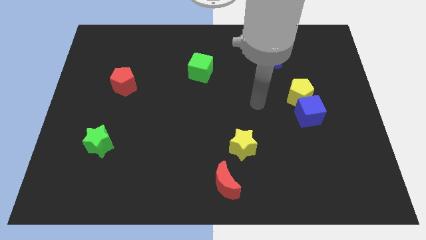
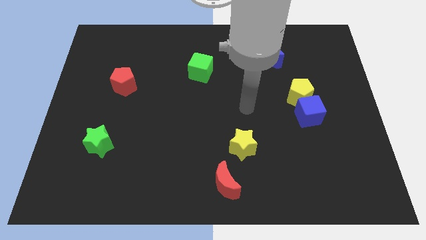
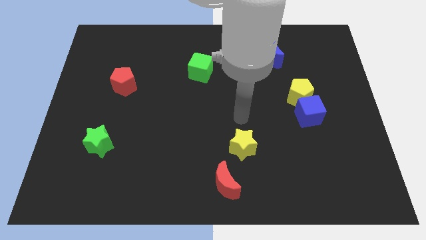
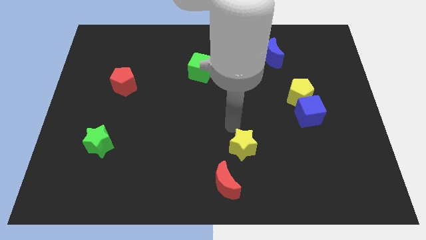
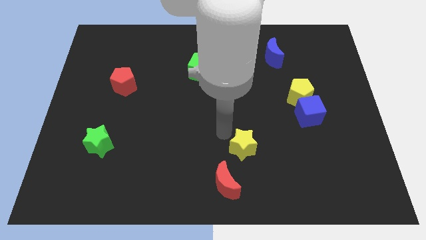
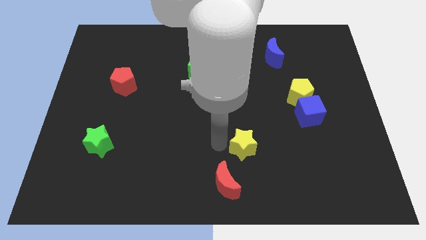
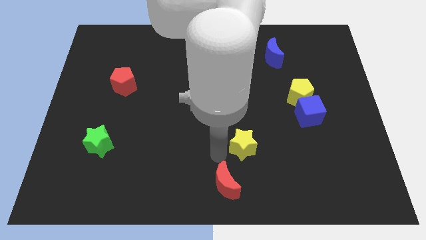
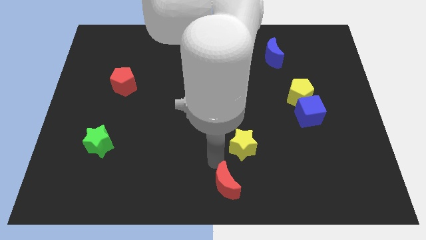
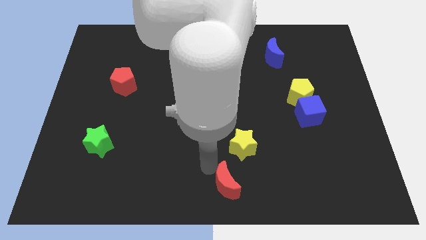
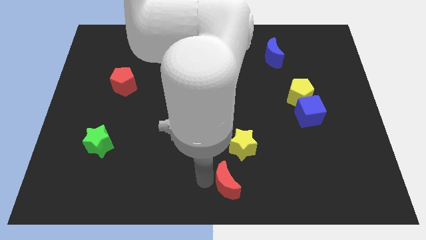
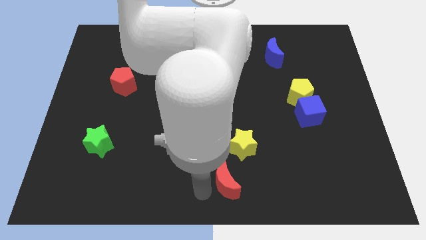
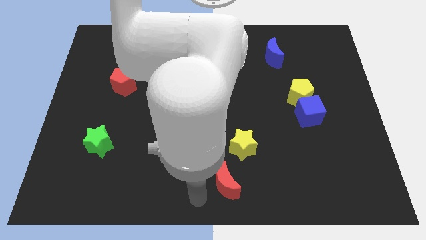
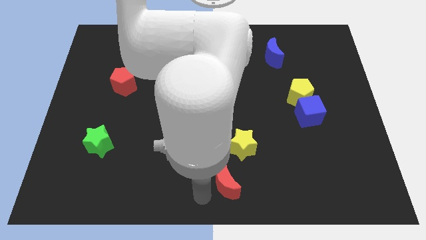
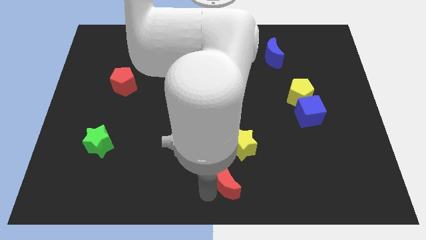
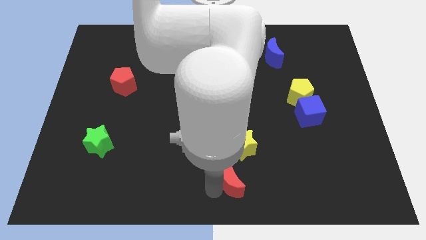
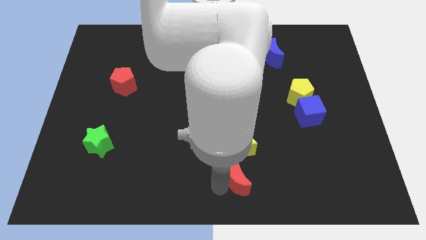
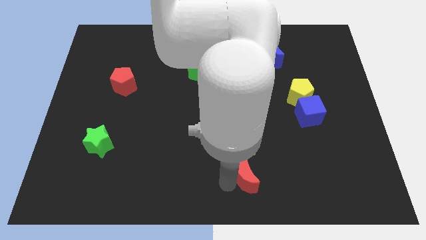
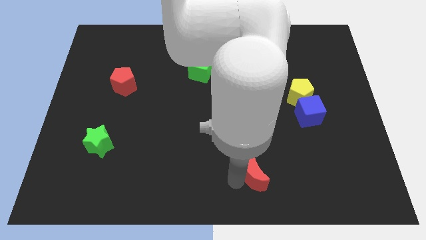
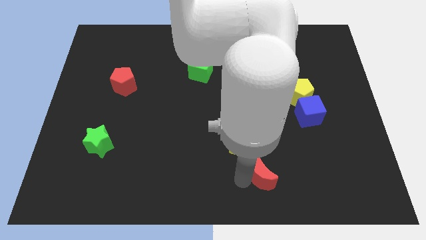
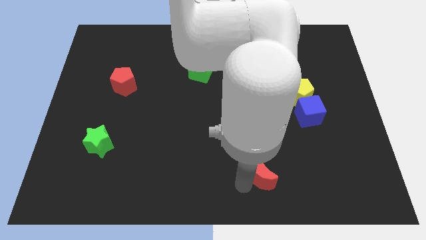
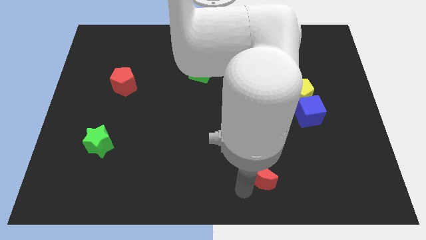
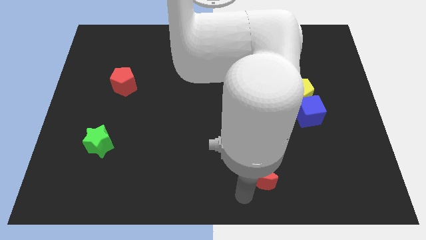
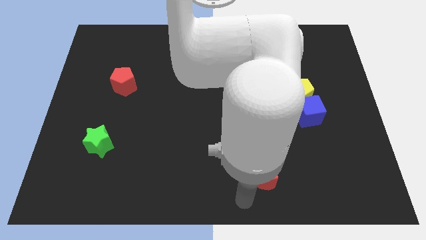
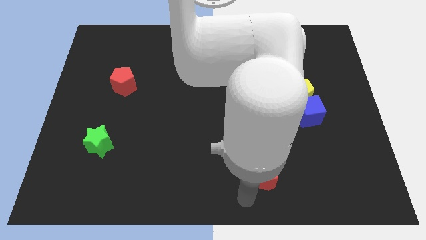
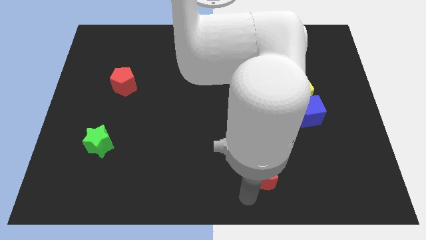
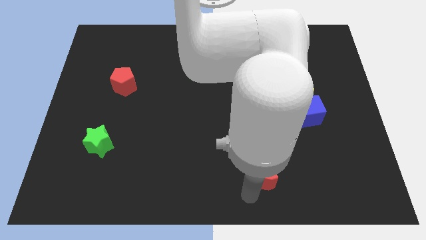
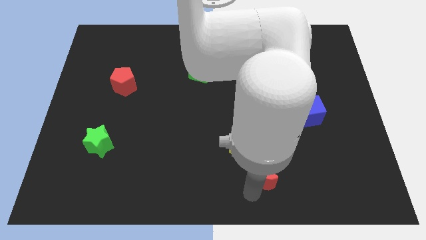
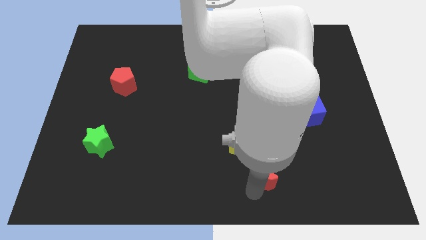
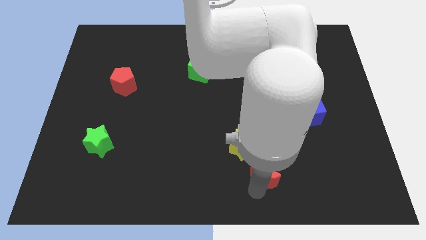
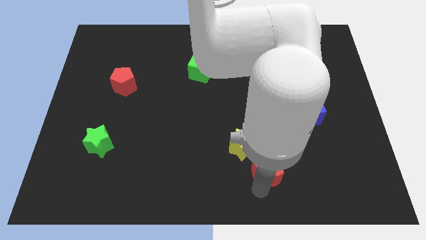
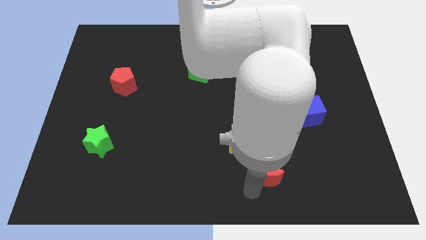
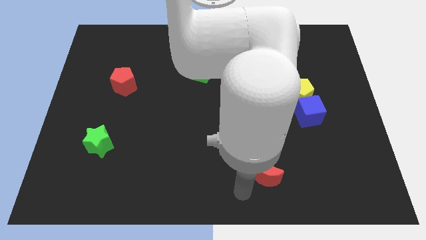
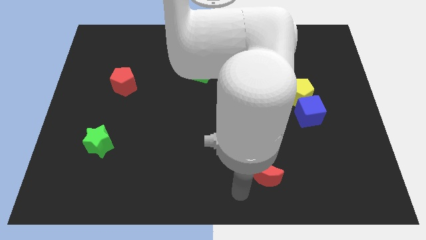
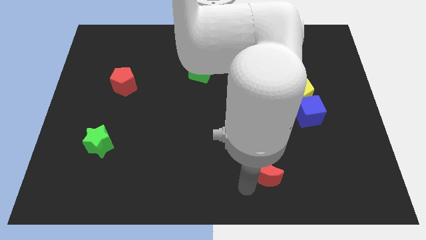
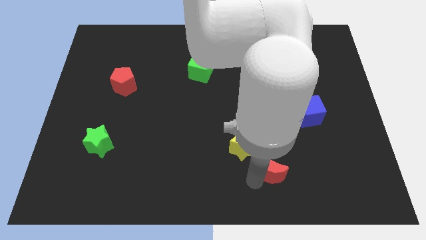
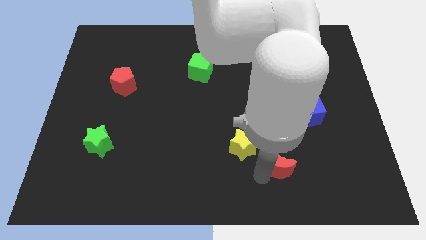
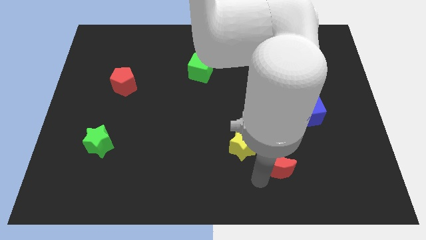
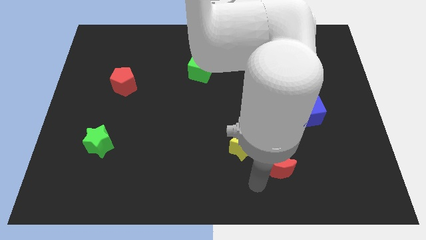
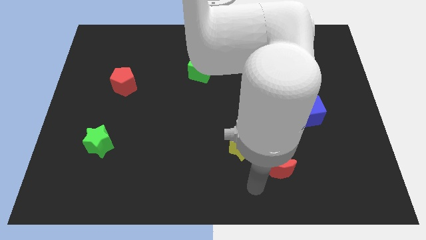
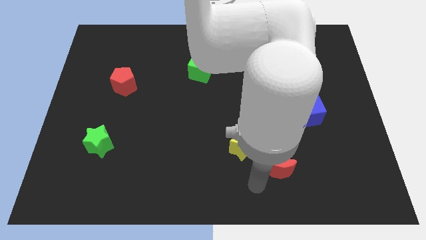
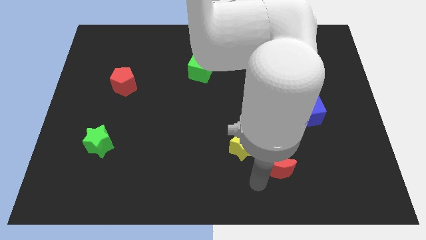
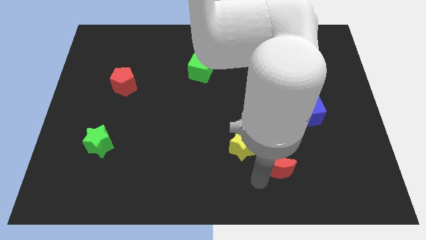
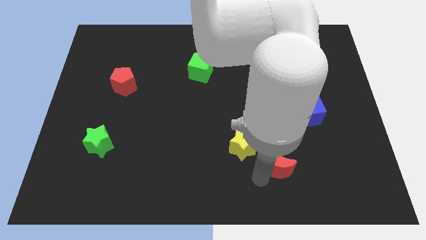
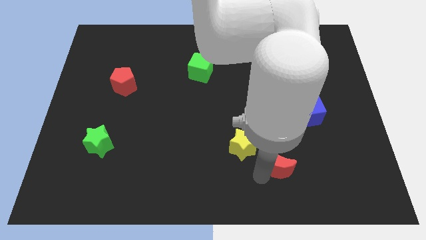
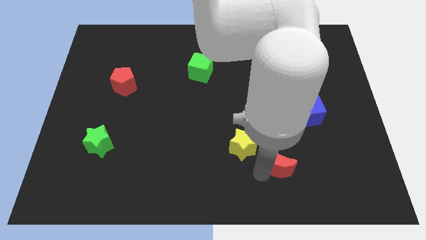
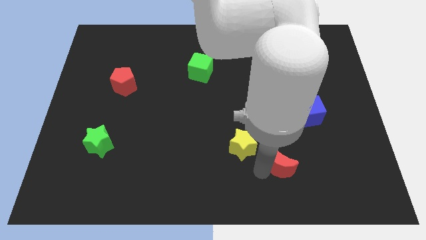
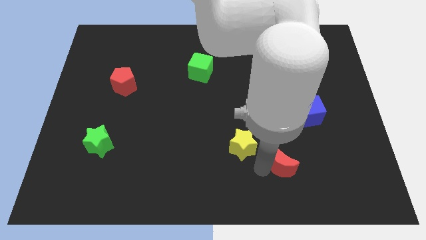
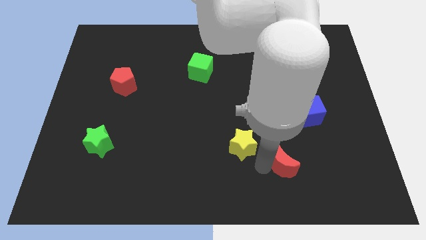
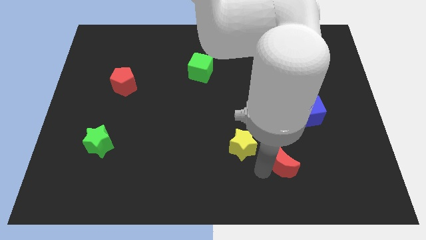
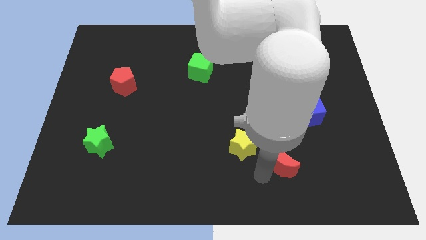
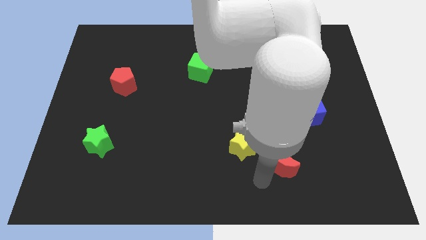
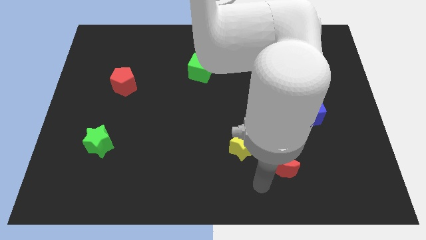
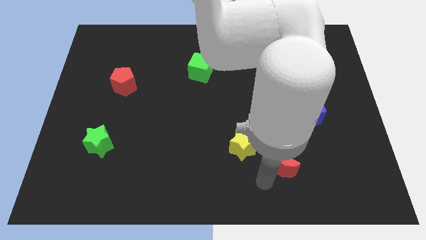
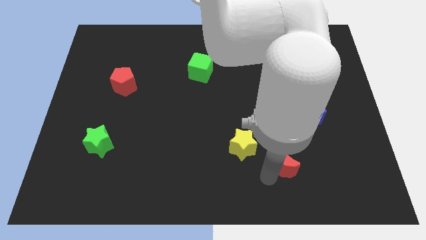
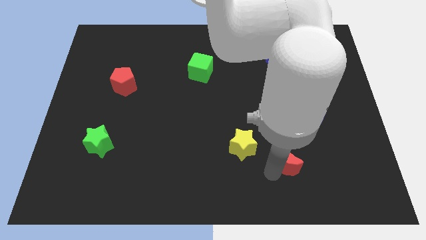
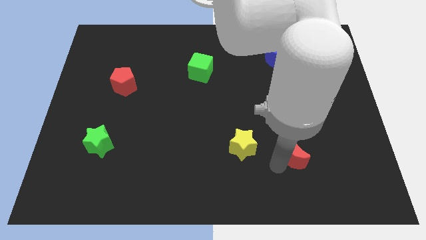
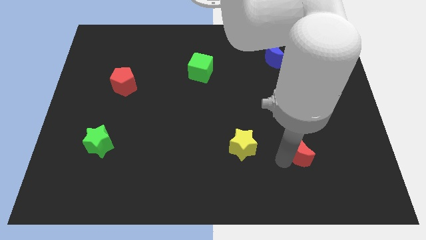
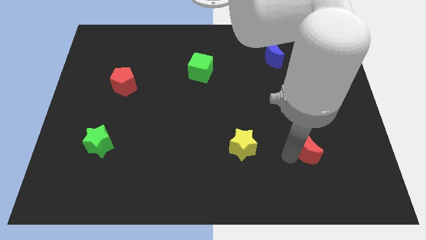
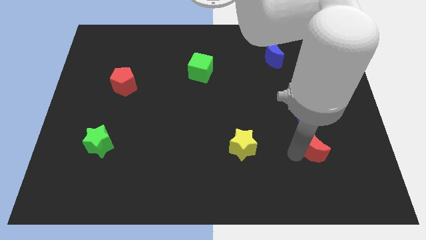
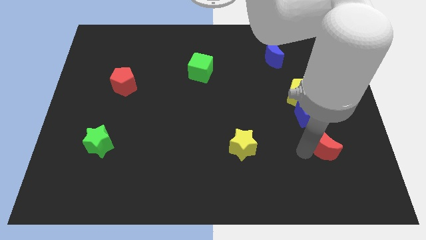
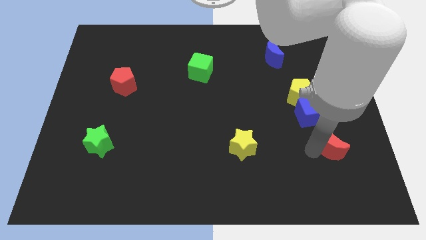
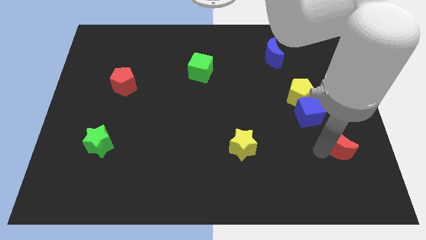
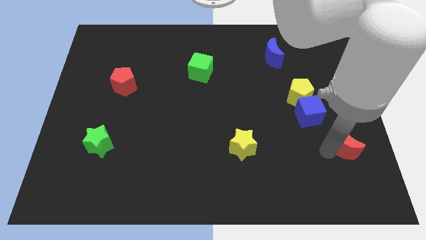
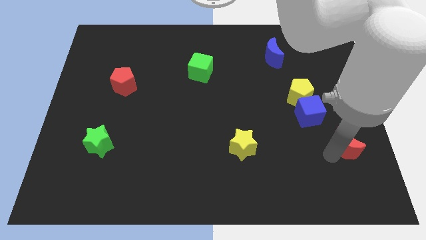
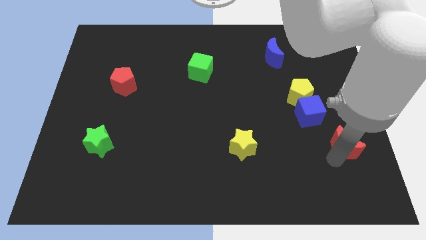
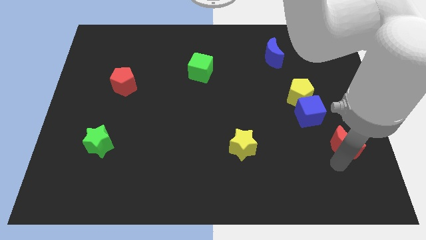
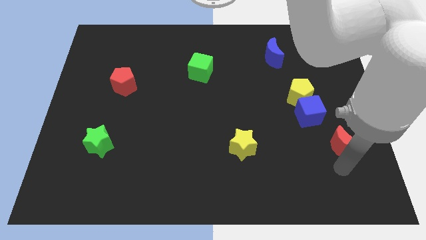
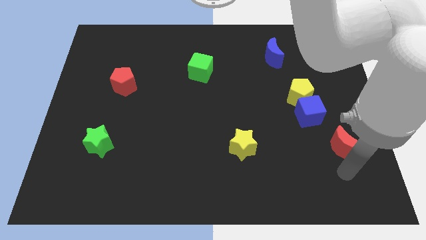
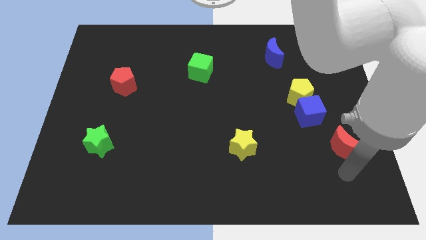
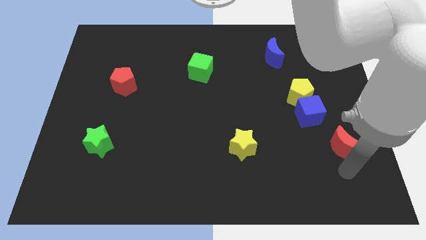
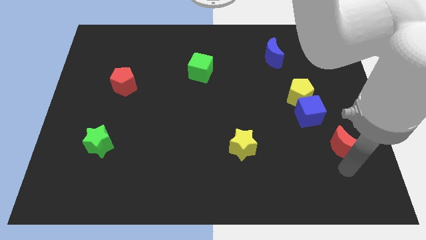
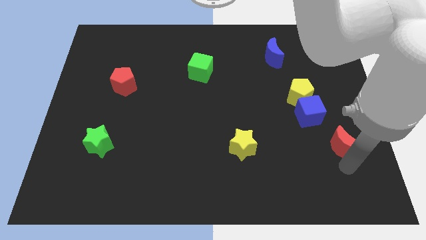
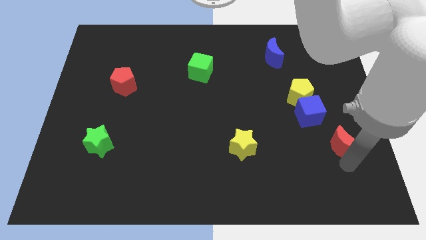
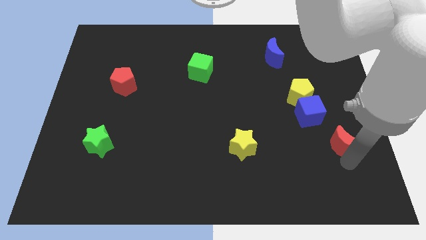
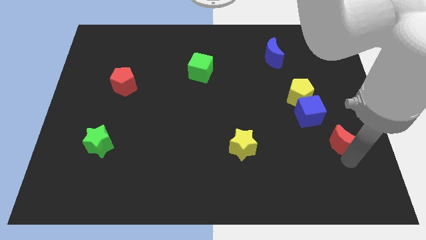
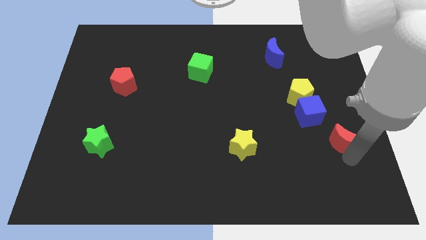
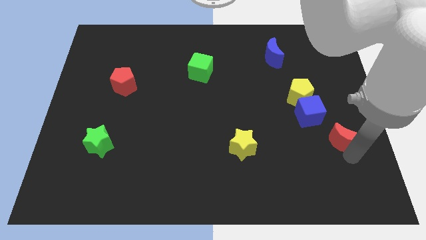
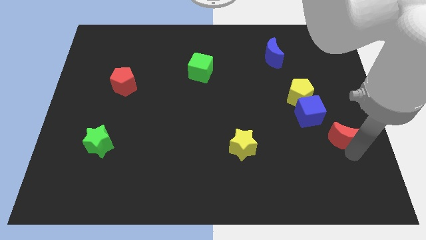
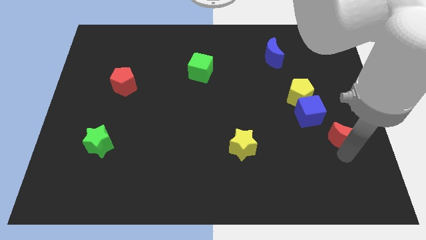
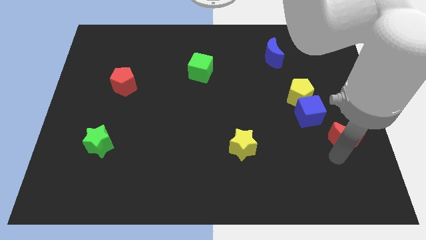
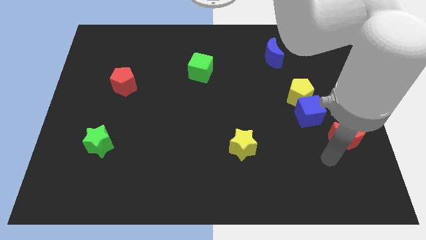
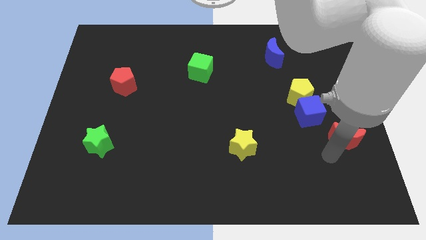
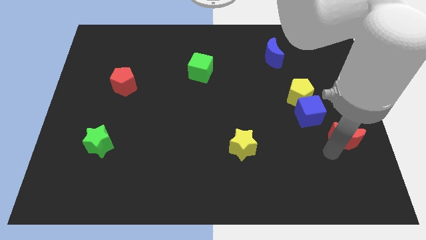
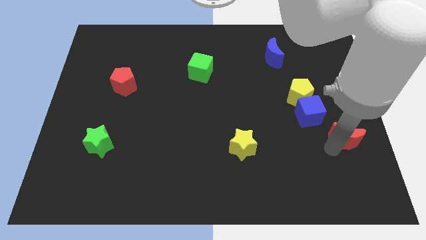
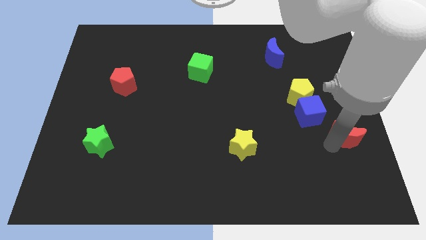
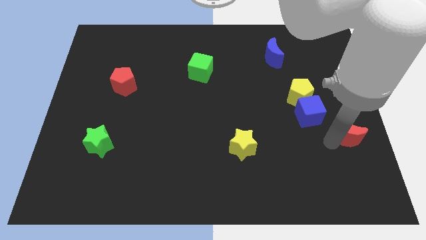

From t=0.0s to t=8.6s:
slide the red moon to the right side of the board
